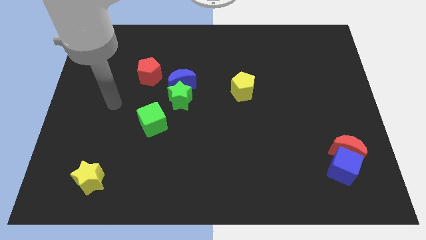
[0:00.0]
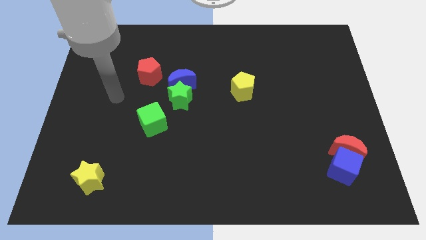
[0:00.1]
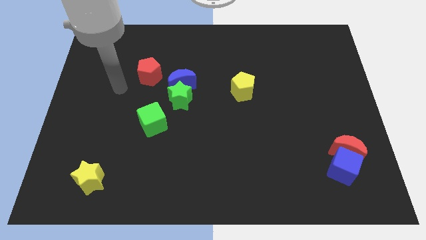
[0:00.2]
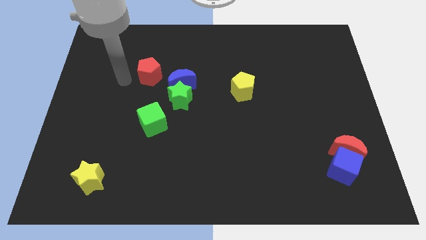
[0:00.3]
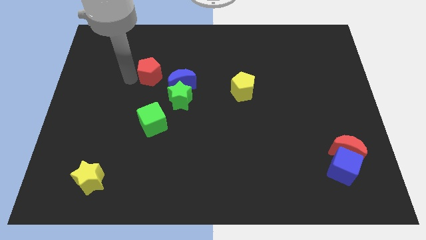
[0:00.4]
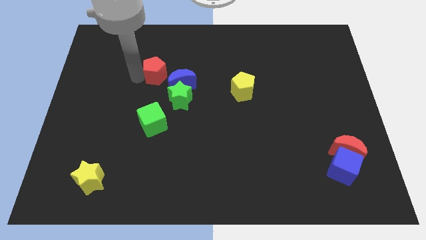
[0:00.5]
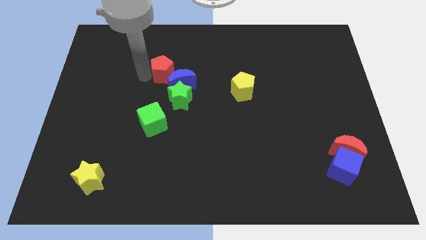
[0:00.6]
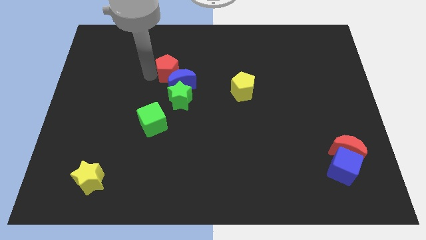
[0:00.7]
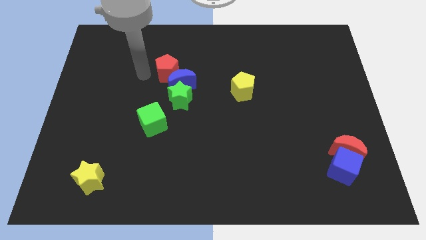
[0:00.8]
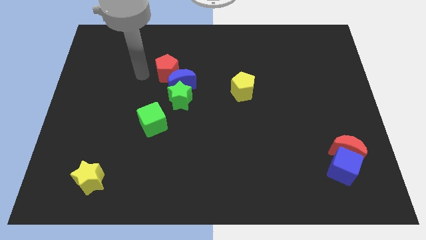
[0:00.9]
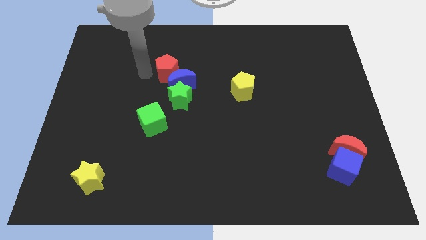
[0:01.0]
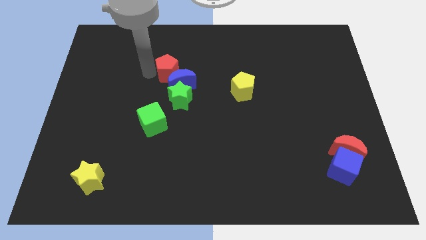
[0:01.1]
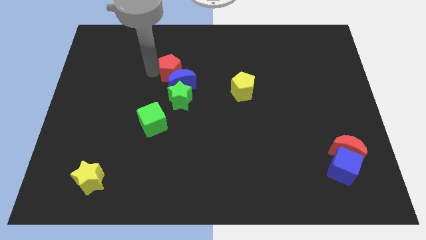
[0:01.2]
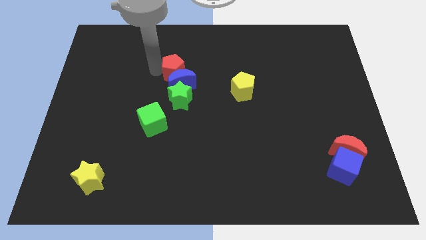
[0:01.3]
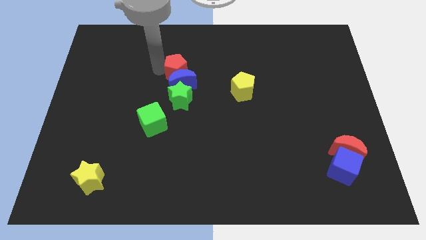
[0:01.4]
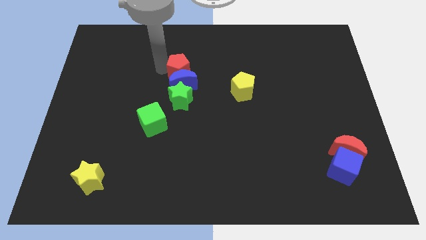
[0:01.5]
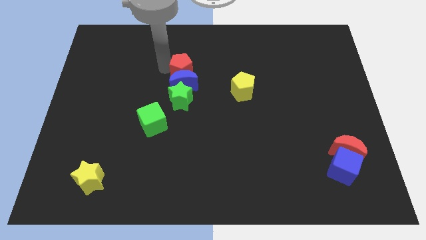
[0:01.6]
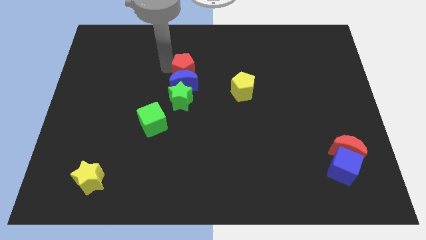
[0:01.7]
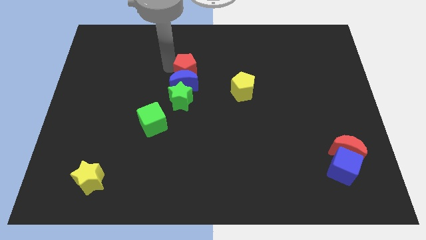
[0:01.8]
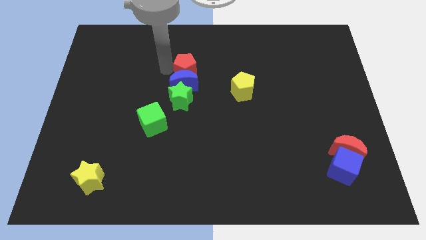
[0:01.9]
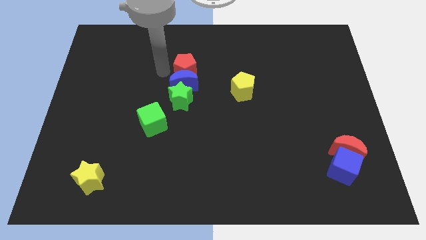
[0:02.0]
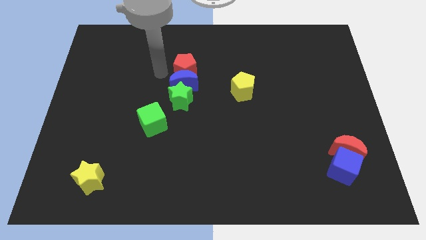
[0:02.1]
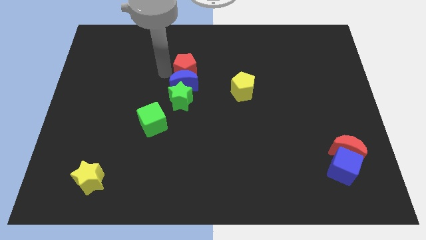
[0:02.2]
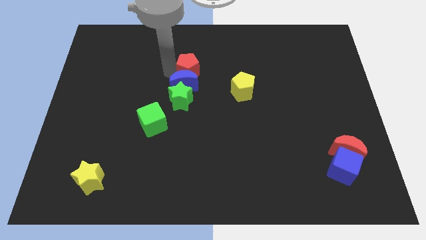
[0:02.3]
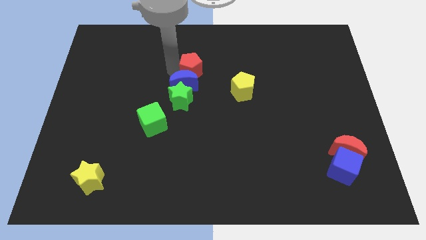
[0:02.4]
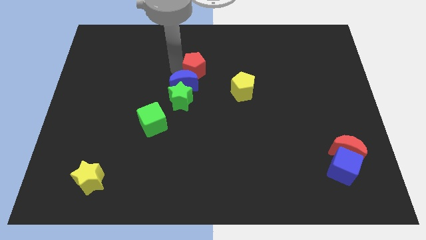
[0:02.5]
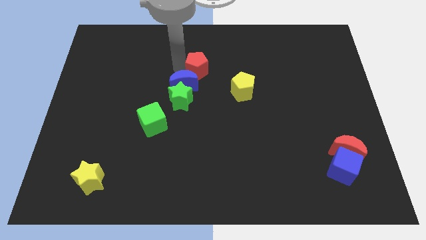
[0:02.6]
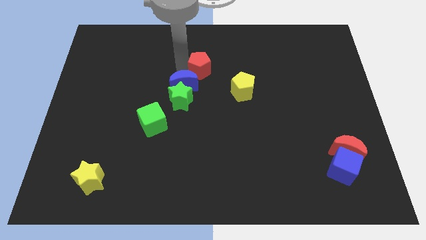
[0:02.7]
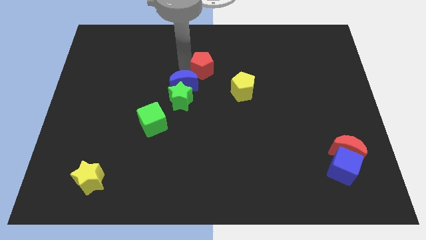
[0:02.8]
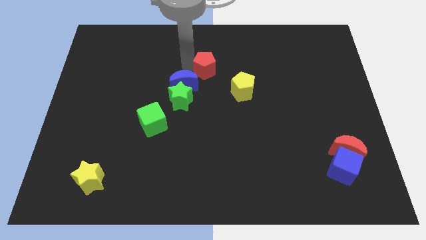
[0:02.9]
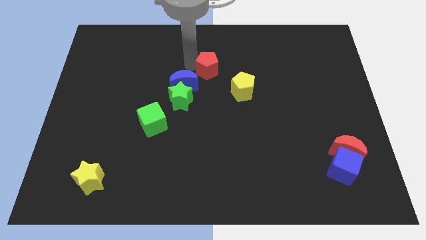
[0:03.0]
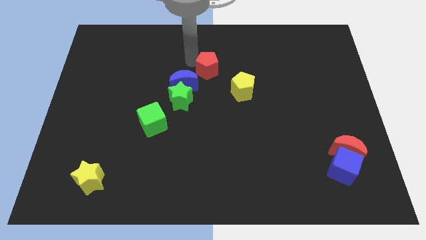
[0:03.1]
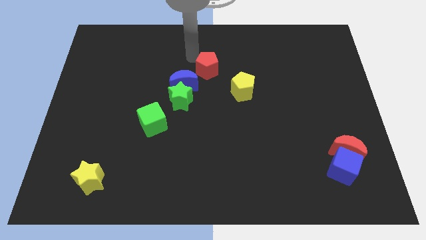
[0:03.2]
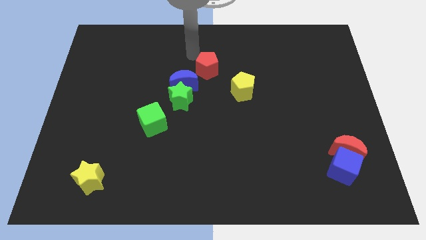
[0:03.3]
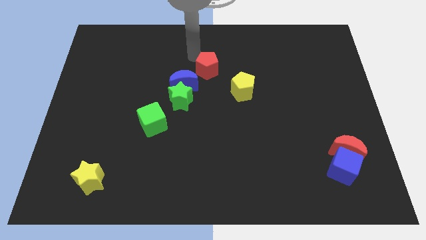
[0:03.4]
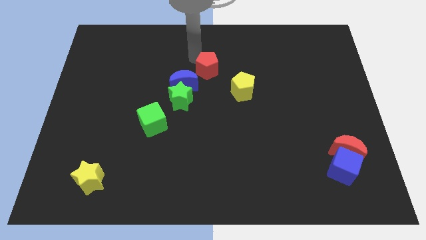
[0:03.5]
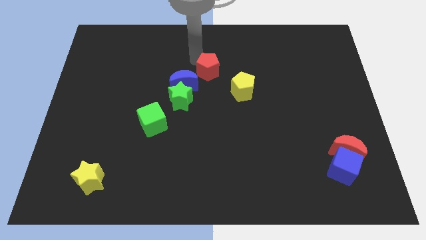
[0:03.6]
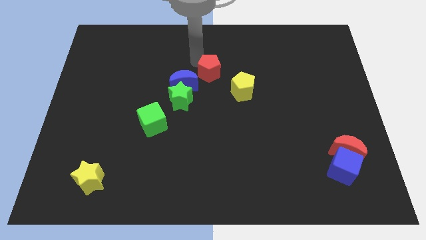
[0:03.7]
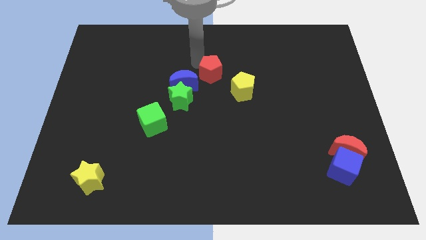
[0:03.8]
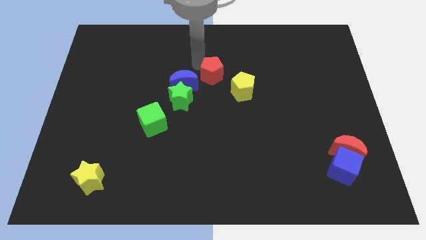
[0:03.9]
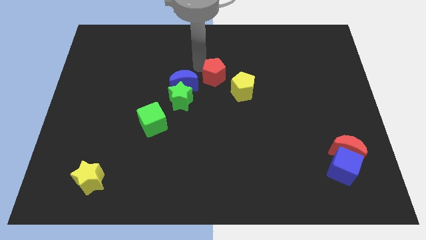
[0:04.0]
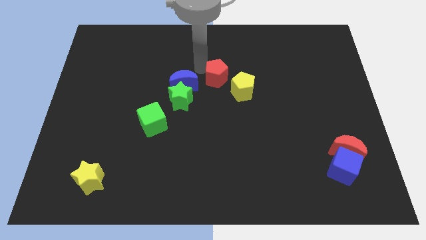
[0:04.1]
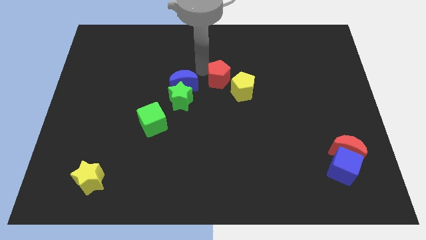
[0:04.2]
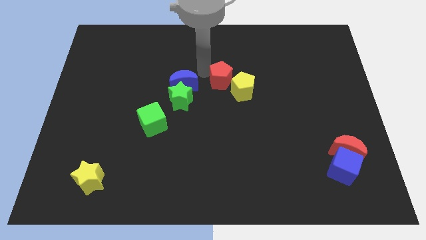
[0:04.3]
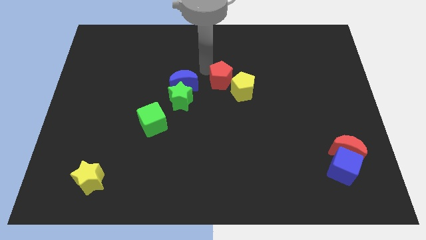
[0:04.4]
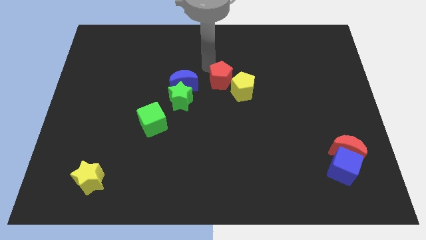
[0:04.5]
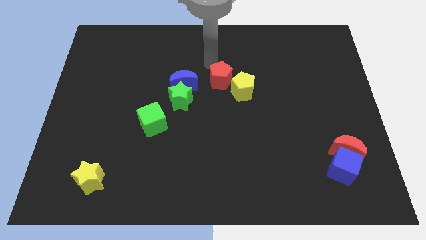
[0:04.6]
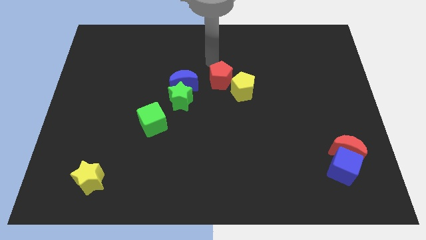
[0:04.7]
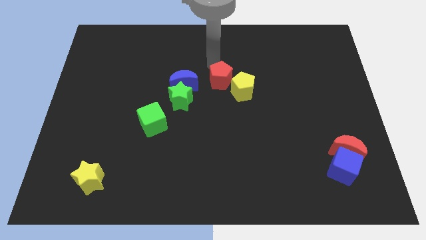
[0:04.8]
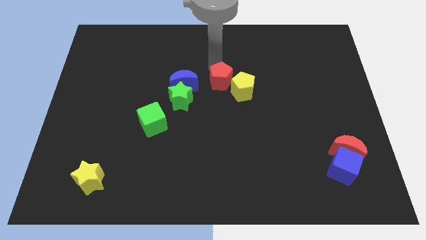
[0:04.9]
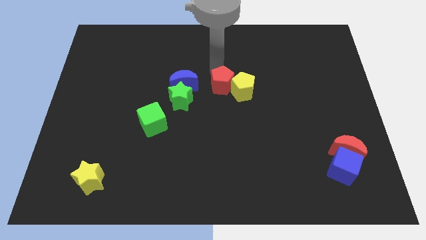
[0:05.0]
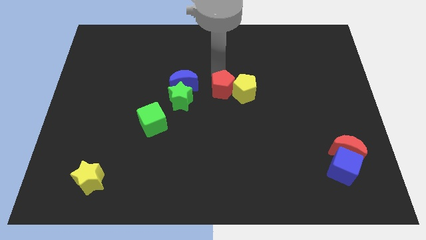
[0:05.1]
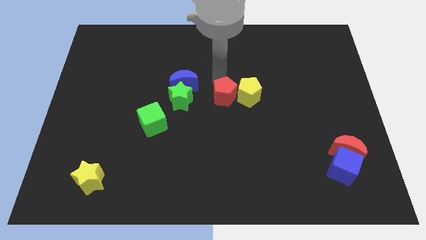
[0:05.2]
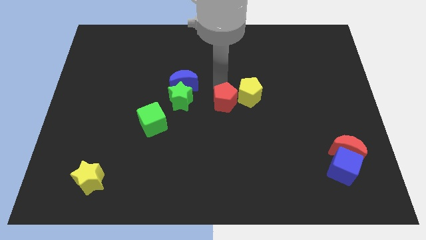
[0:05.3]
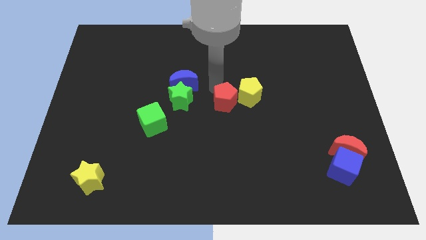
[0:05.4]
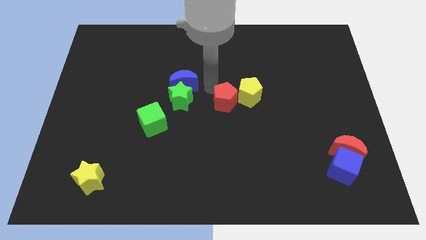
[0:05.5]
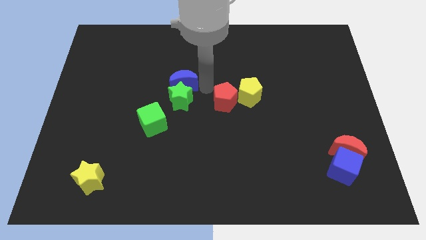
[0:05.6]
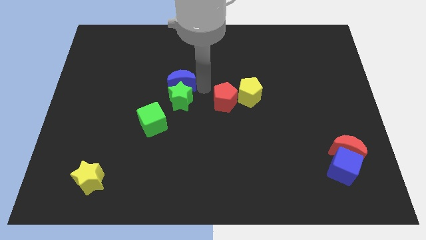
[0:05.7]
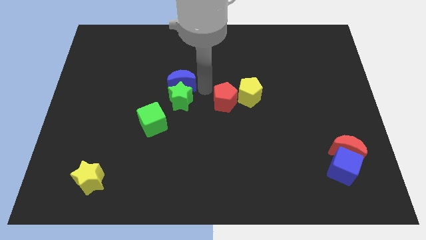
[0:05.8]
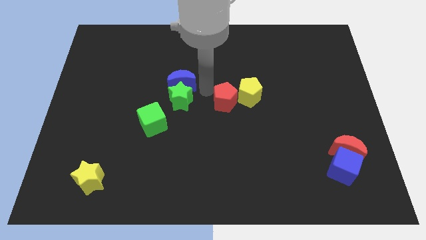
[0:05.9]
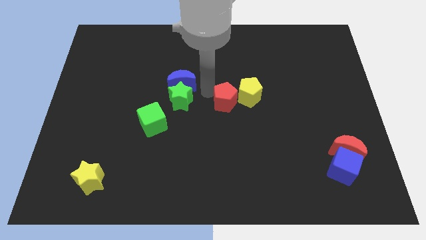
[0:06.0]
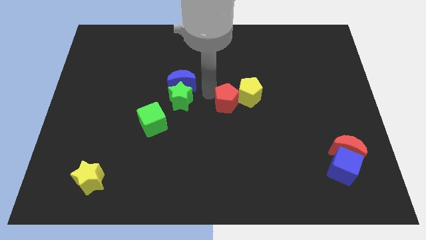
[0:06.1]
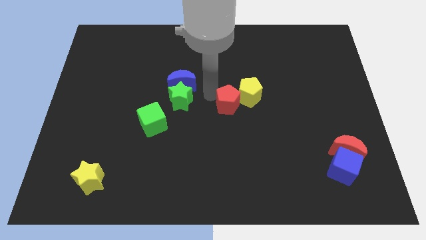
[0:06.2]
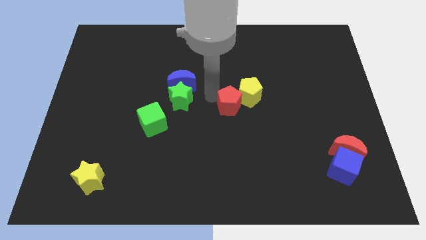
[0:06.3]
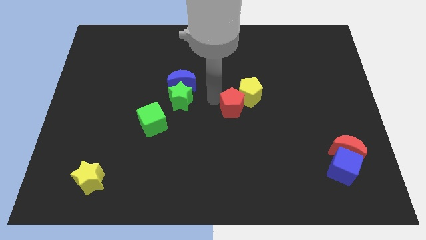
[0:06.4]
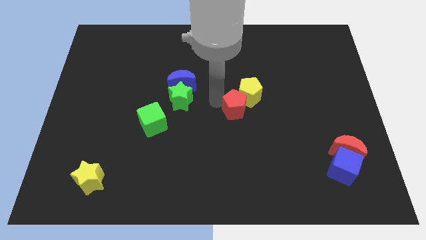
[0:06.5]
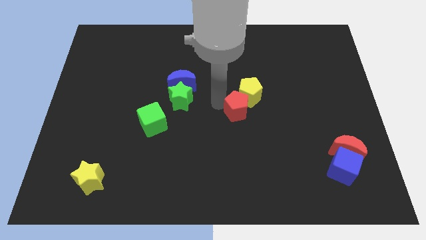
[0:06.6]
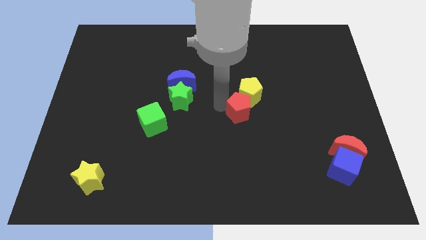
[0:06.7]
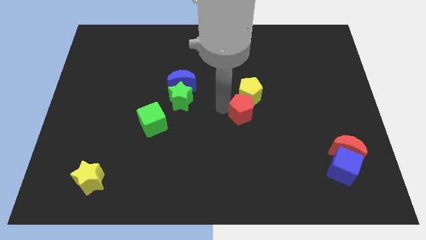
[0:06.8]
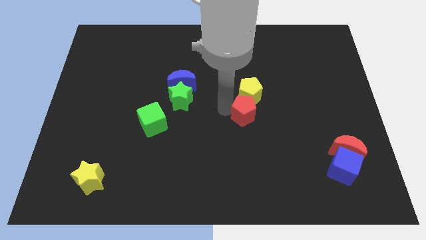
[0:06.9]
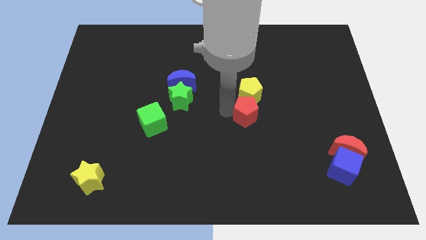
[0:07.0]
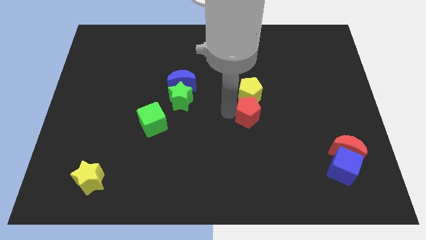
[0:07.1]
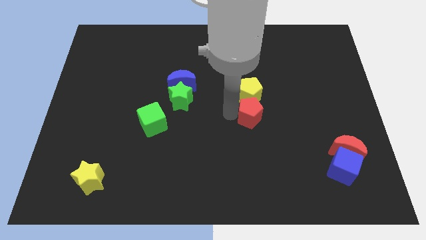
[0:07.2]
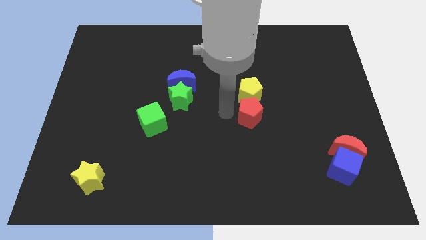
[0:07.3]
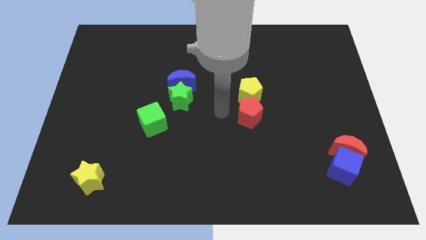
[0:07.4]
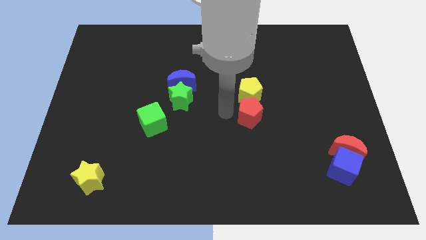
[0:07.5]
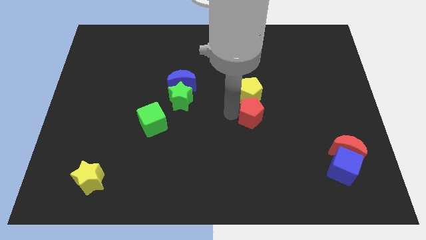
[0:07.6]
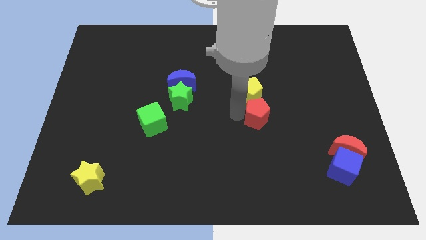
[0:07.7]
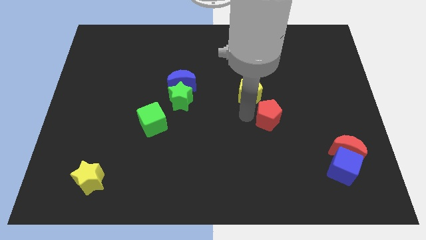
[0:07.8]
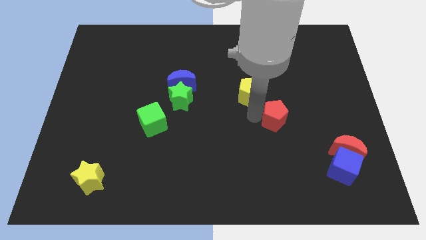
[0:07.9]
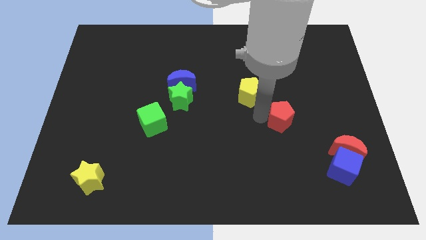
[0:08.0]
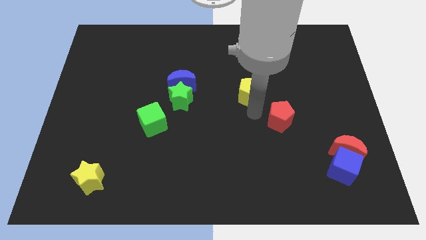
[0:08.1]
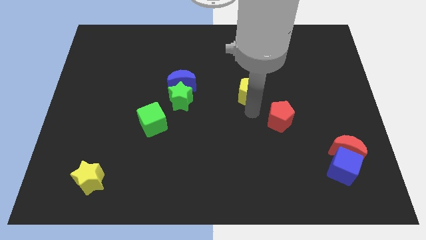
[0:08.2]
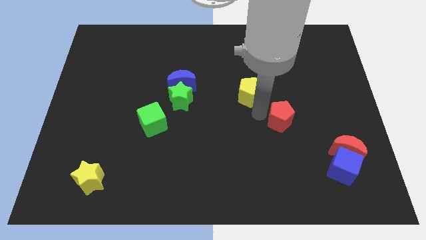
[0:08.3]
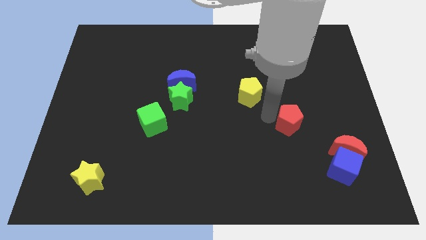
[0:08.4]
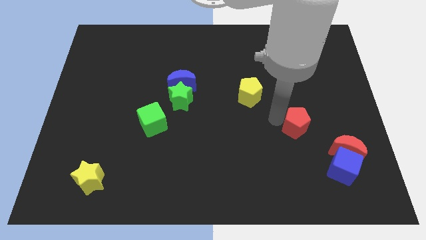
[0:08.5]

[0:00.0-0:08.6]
push the red pentagon diagonally up and to the left of the red moon
